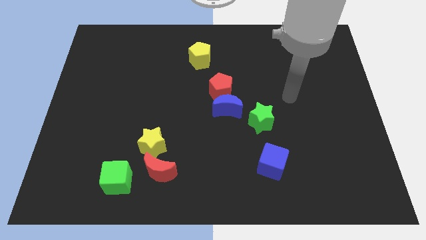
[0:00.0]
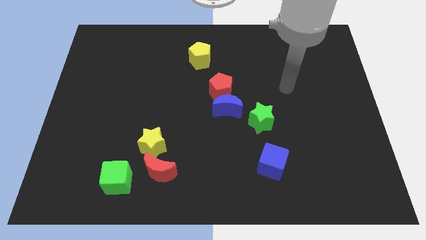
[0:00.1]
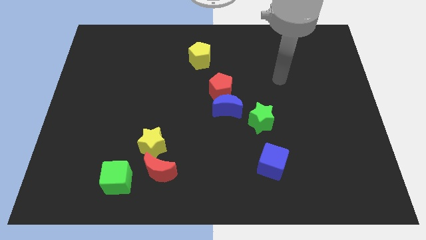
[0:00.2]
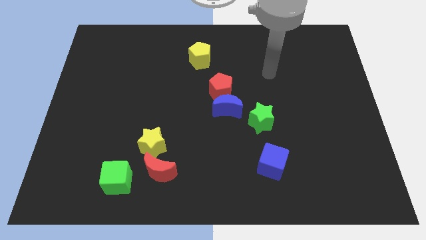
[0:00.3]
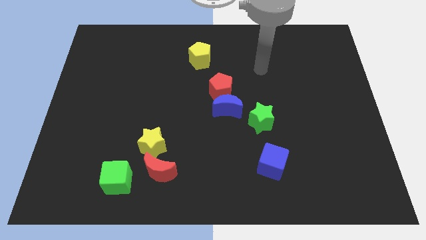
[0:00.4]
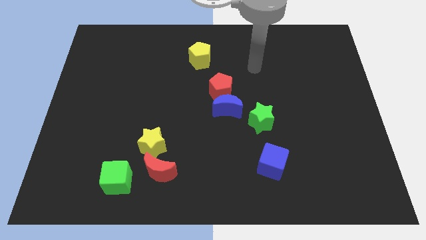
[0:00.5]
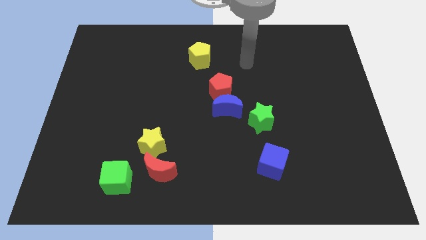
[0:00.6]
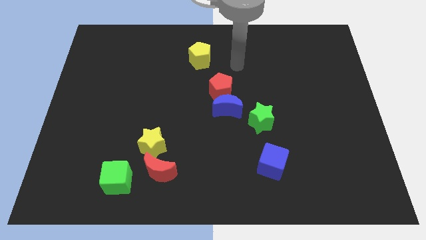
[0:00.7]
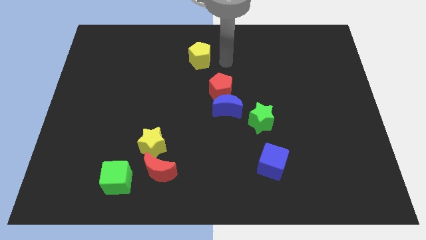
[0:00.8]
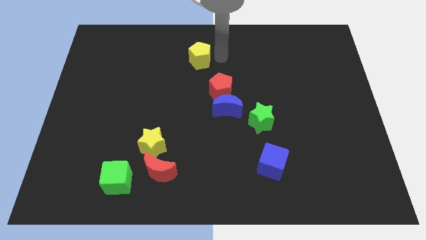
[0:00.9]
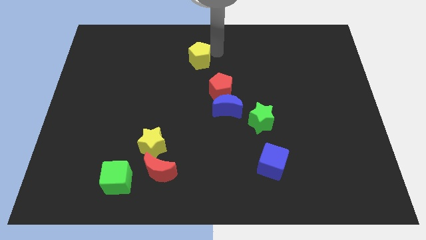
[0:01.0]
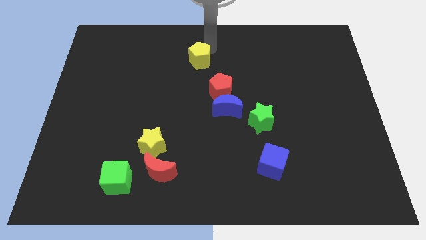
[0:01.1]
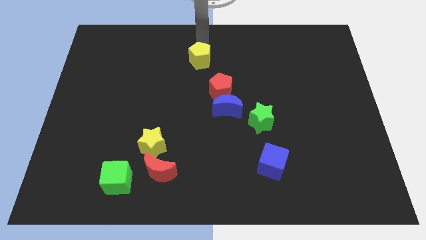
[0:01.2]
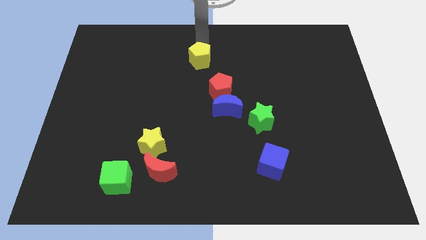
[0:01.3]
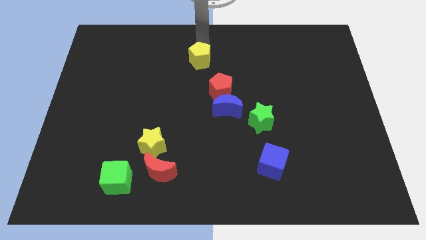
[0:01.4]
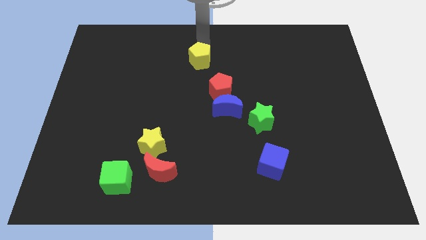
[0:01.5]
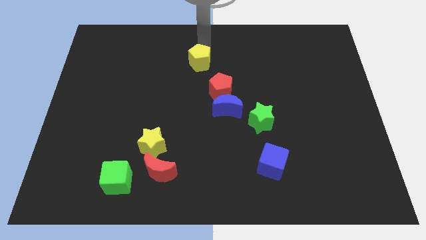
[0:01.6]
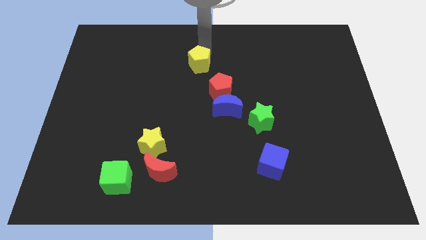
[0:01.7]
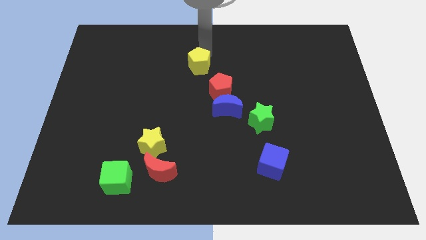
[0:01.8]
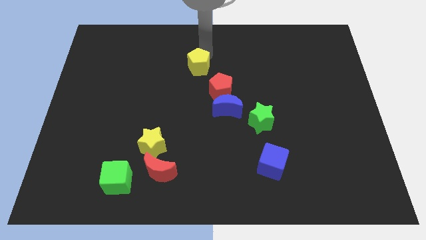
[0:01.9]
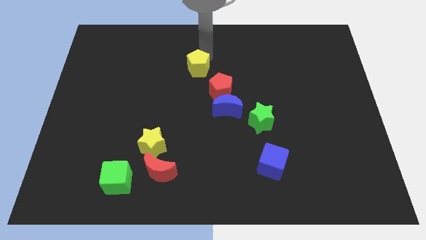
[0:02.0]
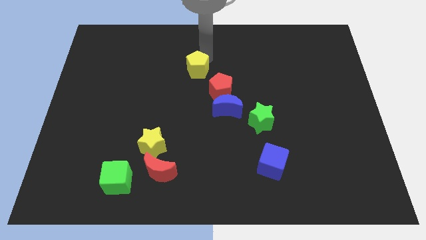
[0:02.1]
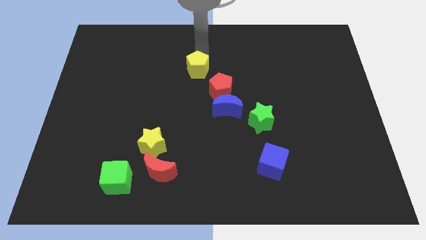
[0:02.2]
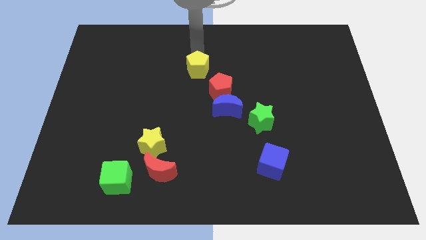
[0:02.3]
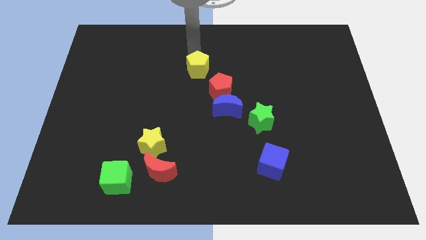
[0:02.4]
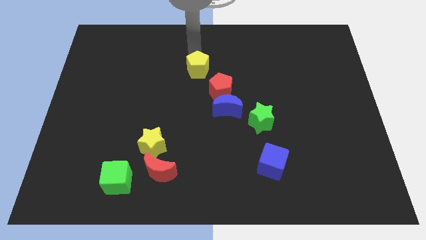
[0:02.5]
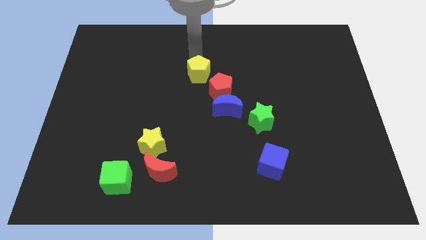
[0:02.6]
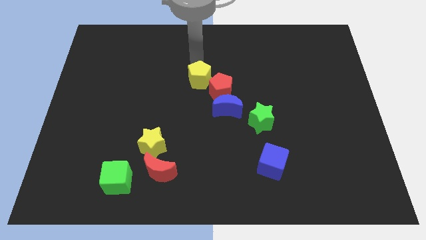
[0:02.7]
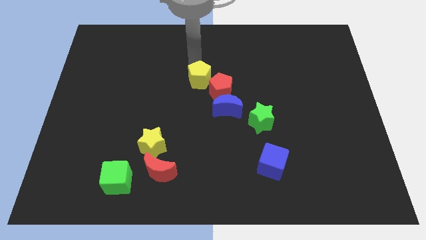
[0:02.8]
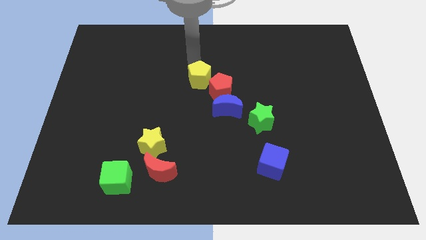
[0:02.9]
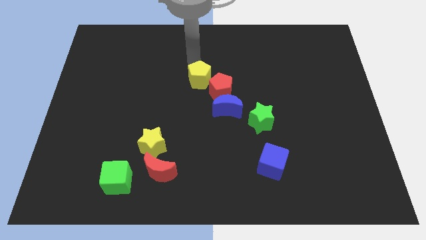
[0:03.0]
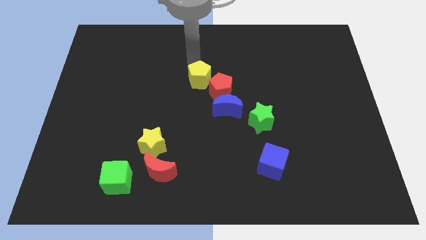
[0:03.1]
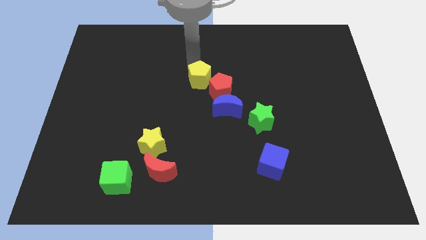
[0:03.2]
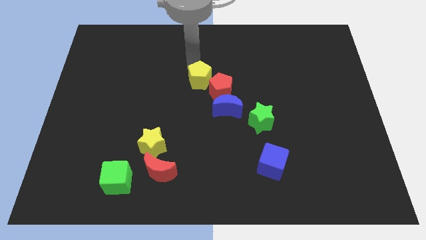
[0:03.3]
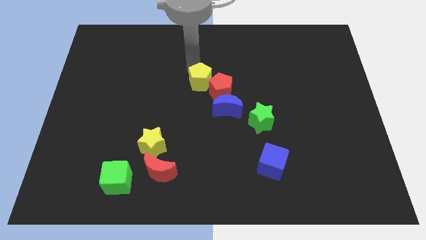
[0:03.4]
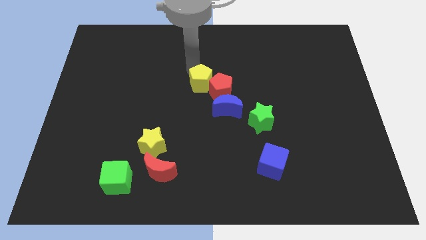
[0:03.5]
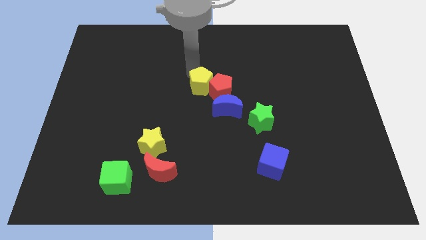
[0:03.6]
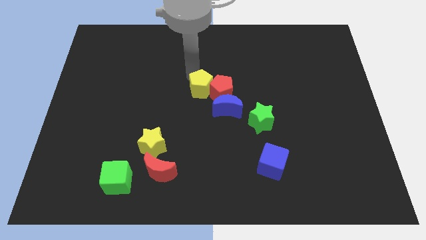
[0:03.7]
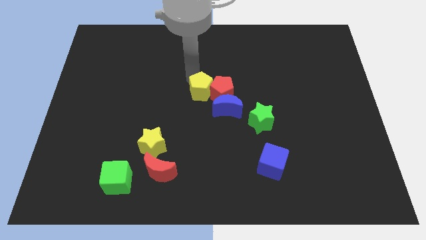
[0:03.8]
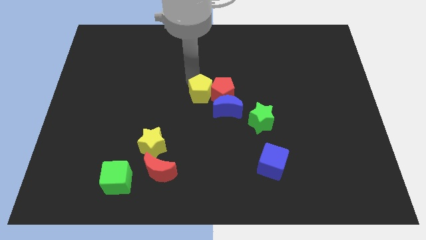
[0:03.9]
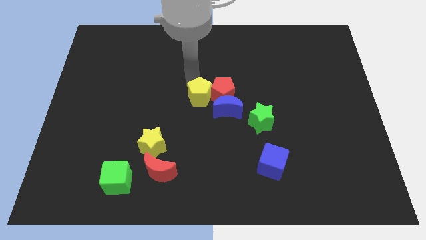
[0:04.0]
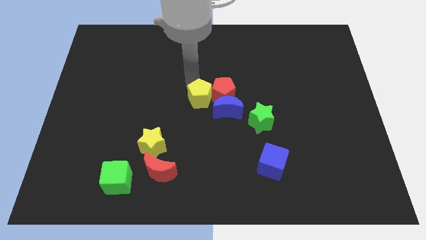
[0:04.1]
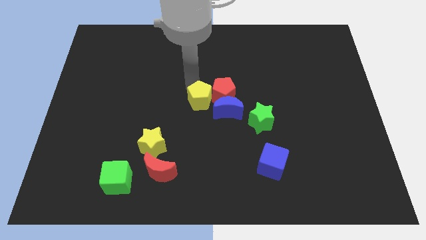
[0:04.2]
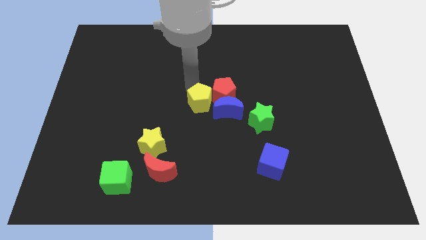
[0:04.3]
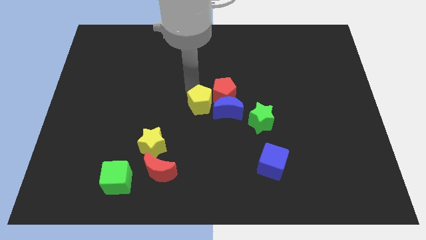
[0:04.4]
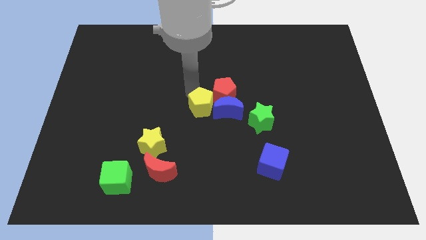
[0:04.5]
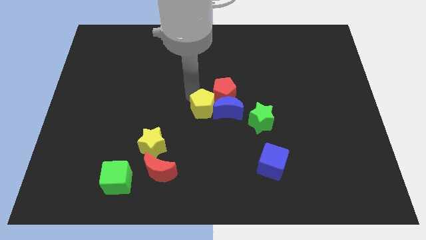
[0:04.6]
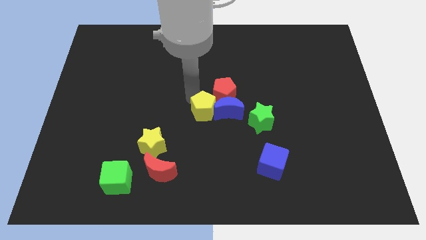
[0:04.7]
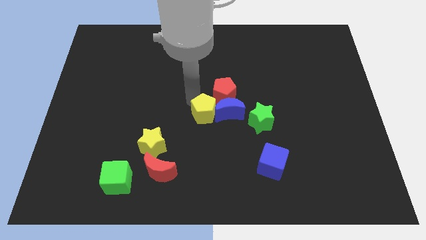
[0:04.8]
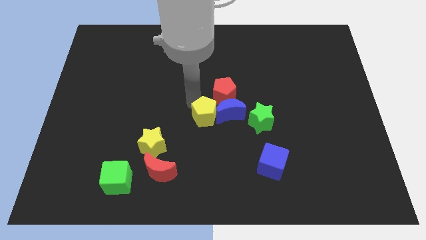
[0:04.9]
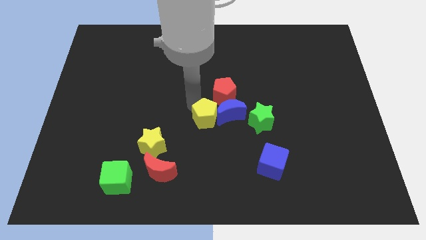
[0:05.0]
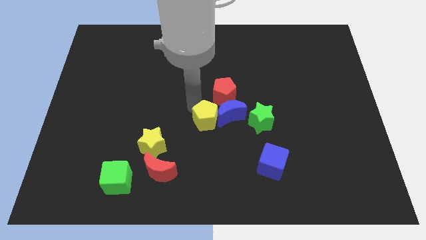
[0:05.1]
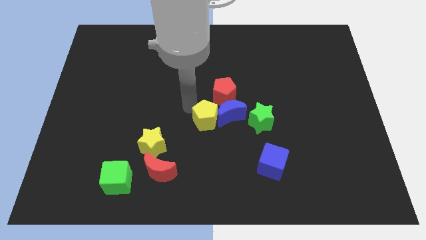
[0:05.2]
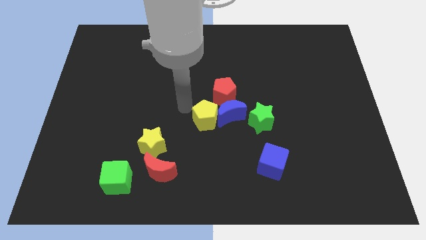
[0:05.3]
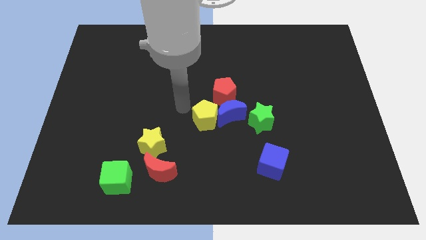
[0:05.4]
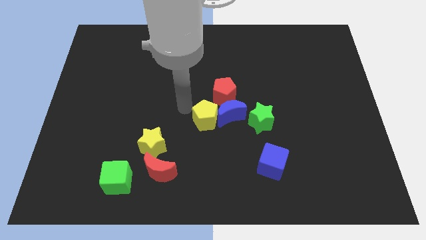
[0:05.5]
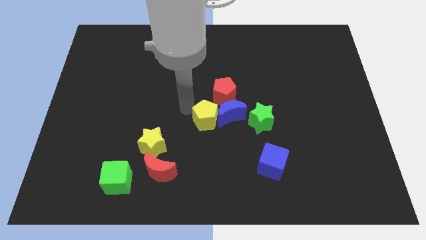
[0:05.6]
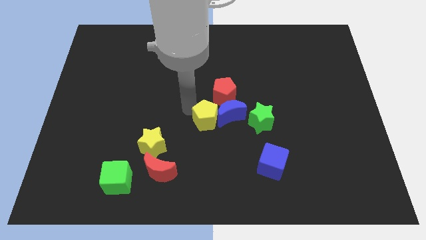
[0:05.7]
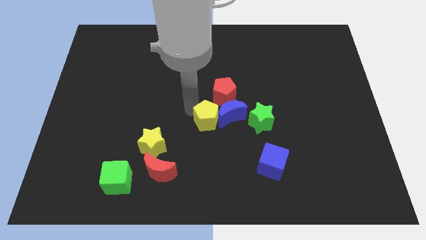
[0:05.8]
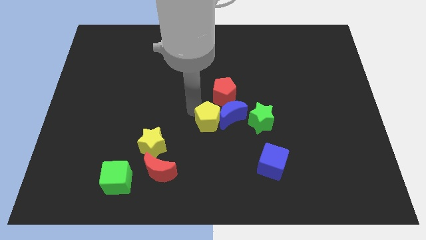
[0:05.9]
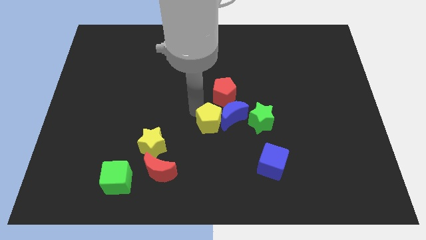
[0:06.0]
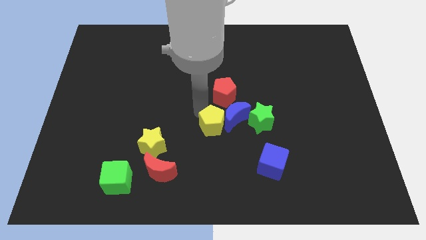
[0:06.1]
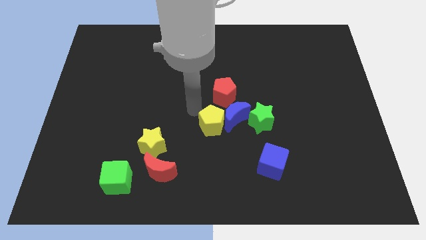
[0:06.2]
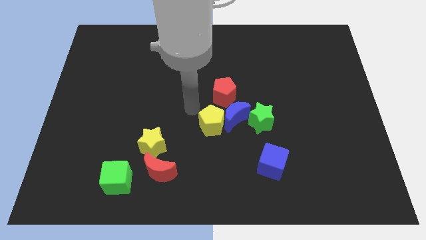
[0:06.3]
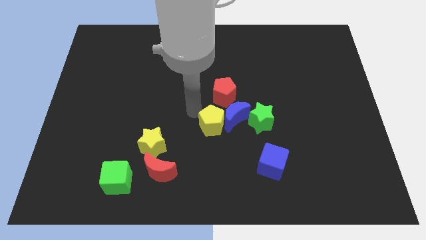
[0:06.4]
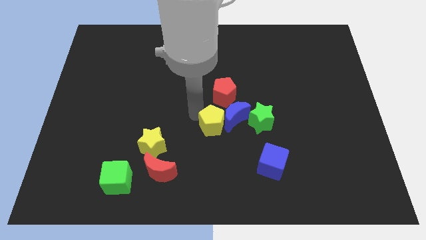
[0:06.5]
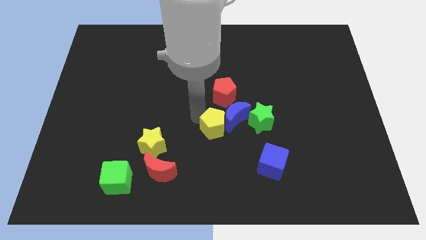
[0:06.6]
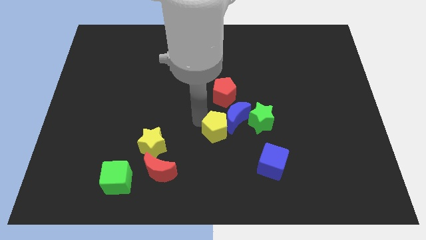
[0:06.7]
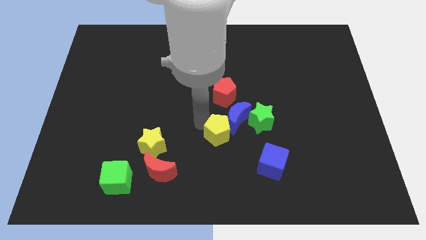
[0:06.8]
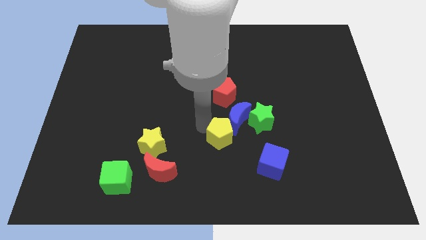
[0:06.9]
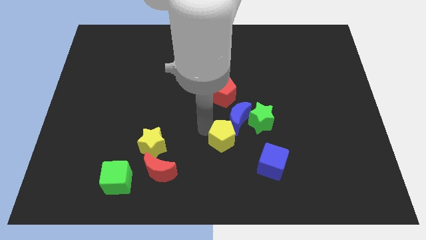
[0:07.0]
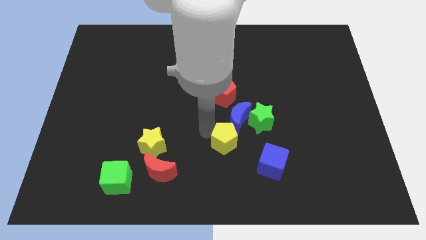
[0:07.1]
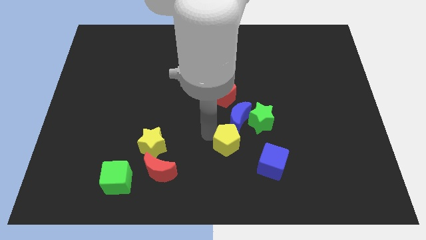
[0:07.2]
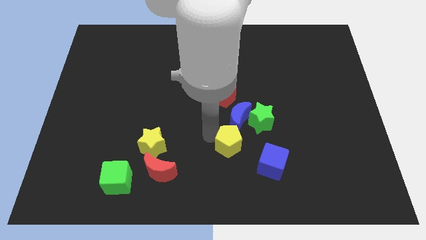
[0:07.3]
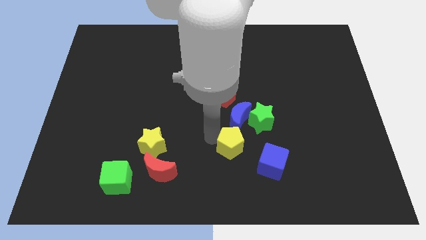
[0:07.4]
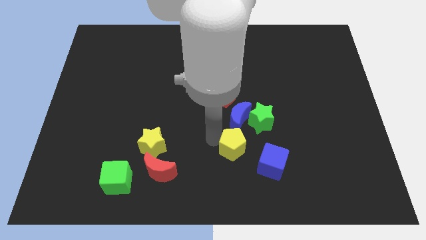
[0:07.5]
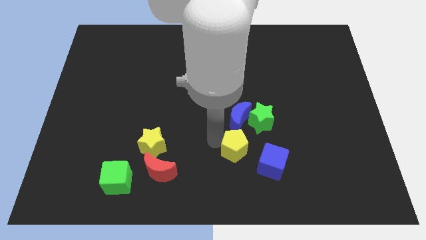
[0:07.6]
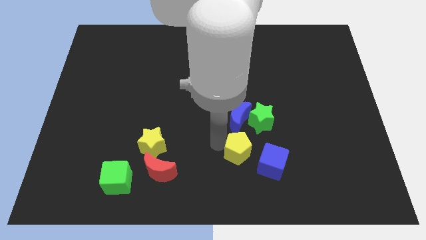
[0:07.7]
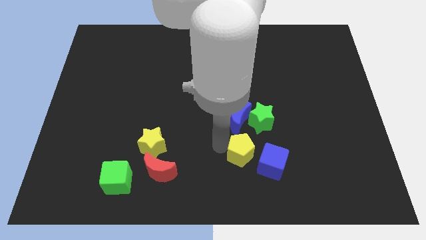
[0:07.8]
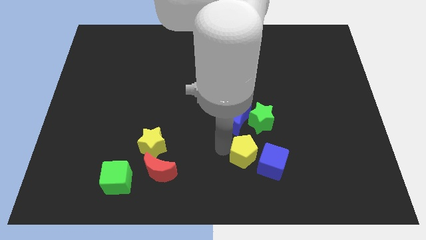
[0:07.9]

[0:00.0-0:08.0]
push the yellow pentagon close to the blue cube
